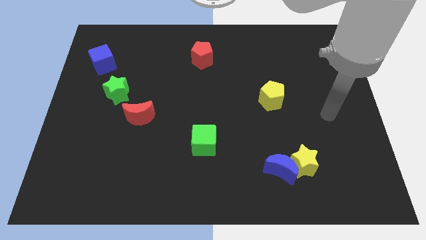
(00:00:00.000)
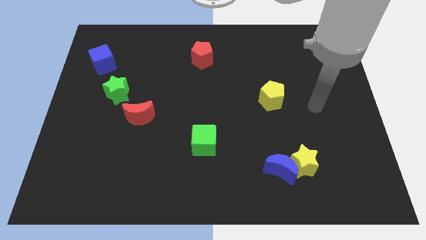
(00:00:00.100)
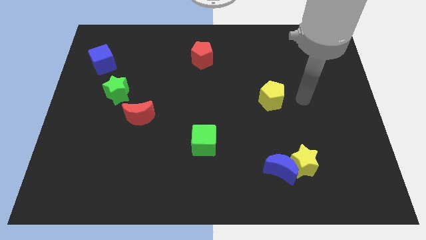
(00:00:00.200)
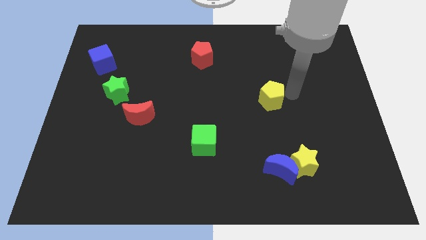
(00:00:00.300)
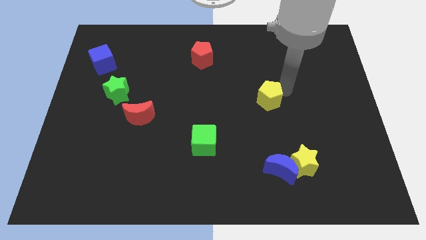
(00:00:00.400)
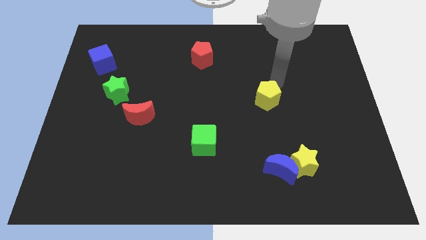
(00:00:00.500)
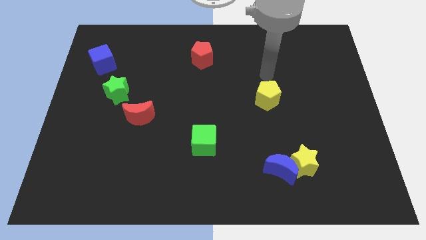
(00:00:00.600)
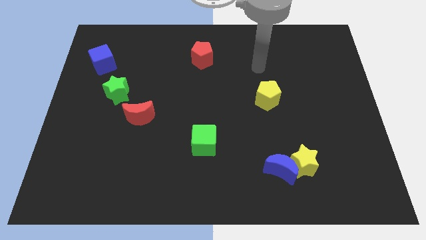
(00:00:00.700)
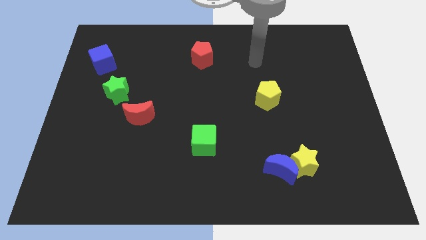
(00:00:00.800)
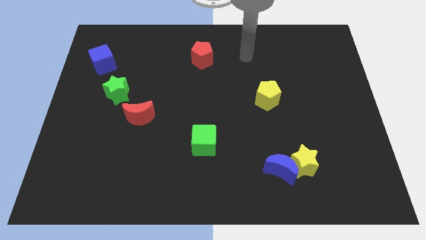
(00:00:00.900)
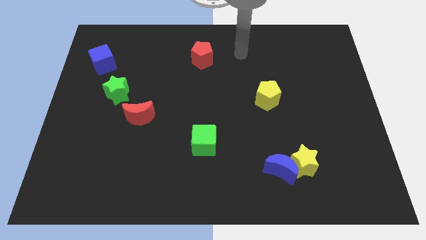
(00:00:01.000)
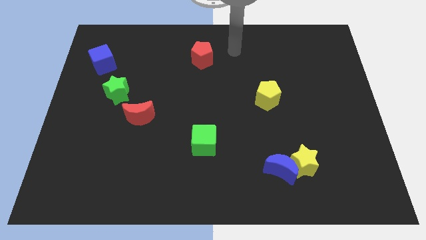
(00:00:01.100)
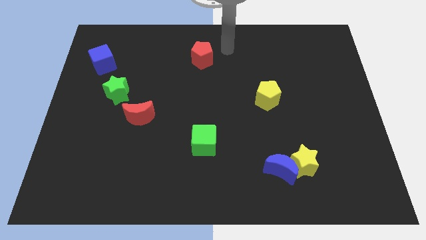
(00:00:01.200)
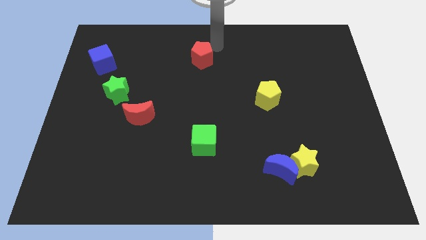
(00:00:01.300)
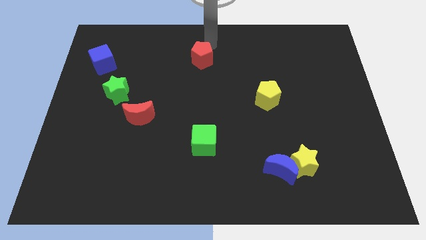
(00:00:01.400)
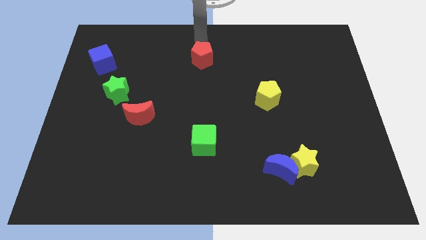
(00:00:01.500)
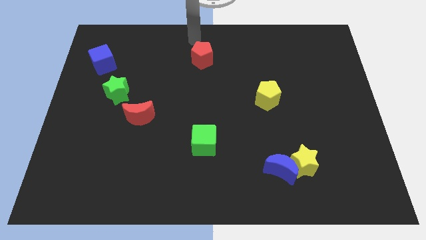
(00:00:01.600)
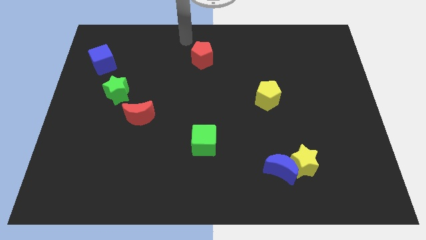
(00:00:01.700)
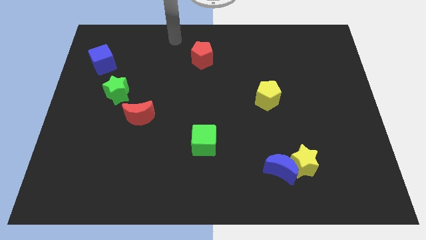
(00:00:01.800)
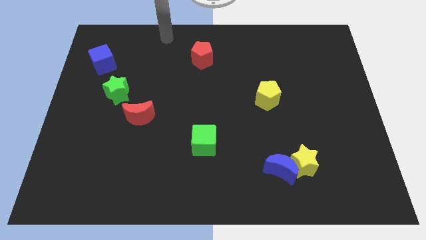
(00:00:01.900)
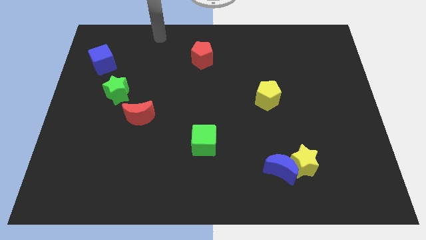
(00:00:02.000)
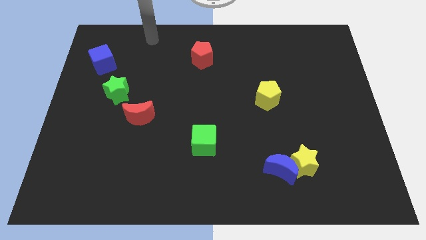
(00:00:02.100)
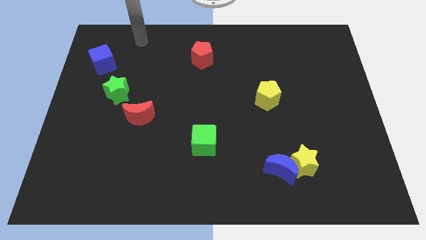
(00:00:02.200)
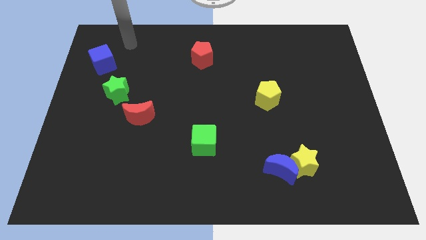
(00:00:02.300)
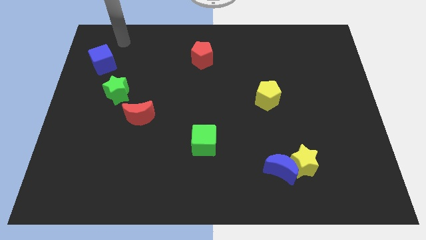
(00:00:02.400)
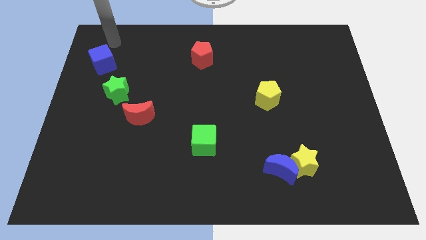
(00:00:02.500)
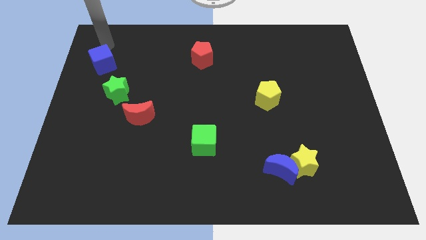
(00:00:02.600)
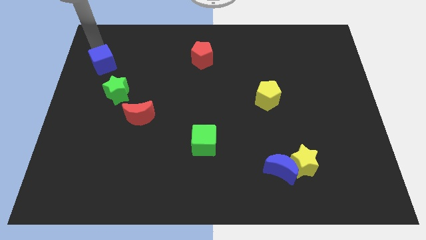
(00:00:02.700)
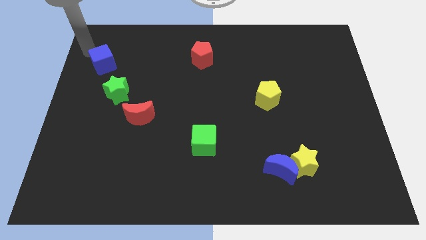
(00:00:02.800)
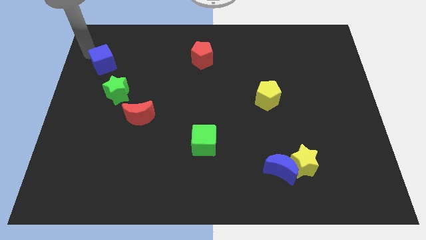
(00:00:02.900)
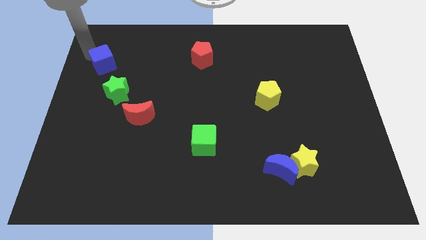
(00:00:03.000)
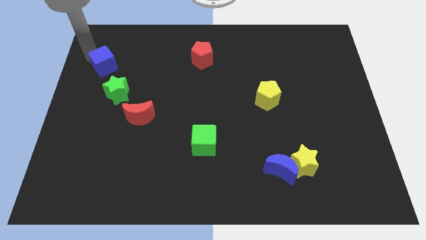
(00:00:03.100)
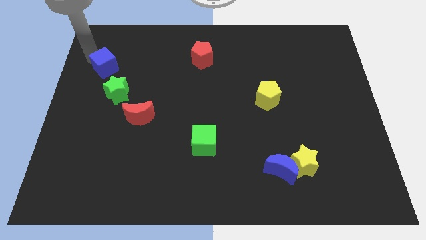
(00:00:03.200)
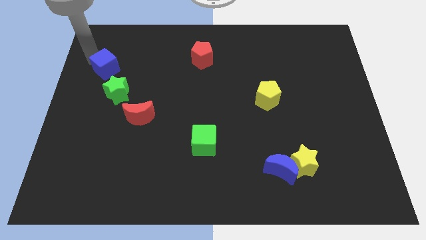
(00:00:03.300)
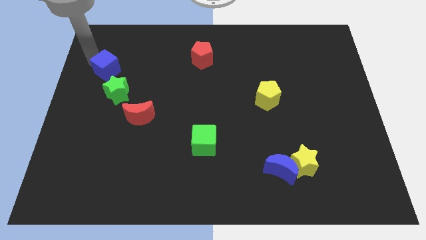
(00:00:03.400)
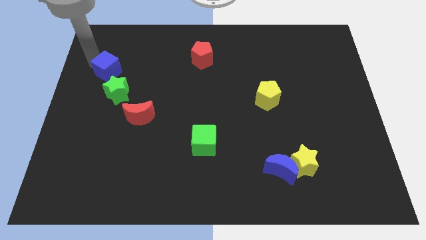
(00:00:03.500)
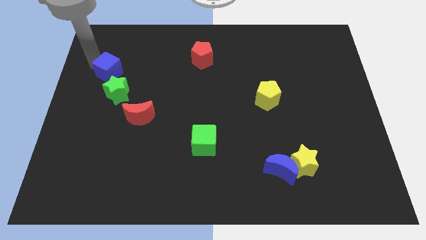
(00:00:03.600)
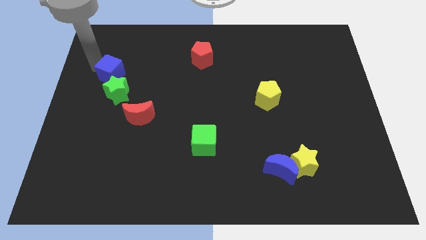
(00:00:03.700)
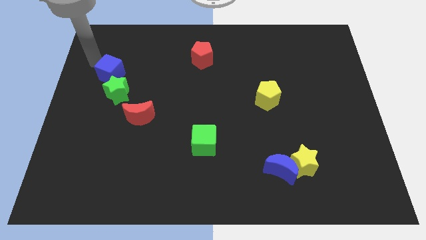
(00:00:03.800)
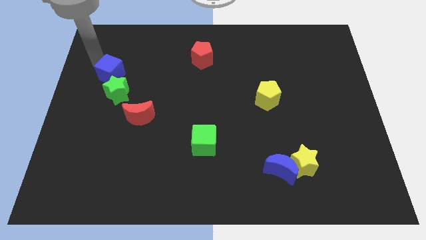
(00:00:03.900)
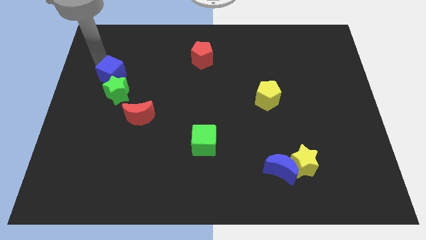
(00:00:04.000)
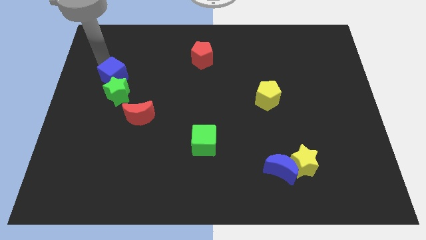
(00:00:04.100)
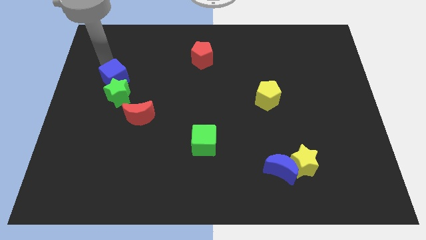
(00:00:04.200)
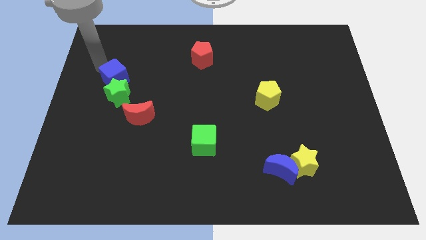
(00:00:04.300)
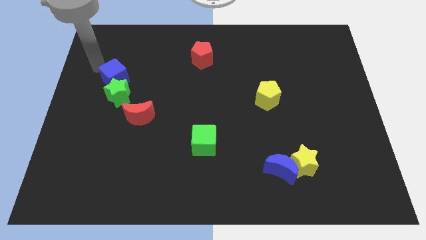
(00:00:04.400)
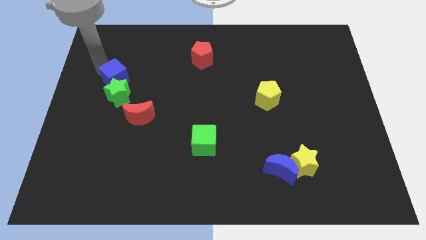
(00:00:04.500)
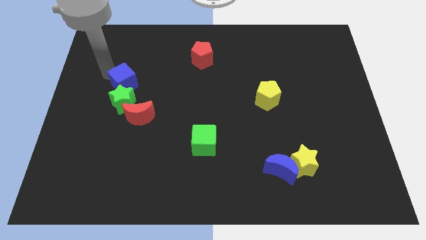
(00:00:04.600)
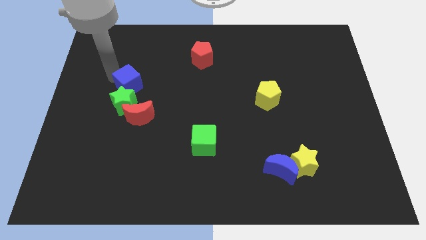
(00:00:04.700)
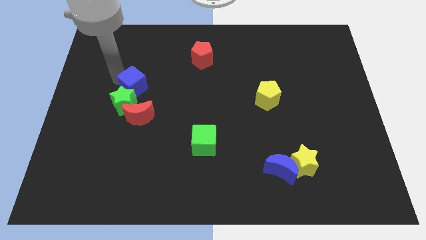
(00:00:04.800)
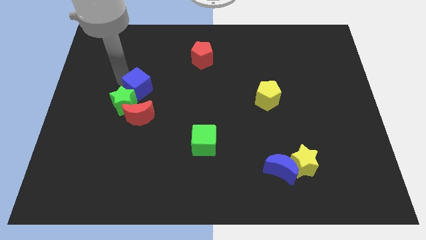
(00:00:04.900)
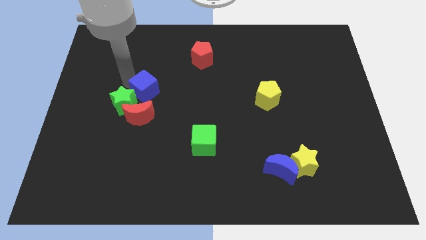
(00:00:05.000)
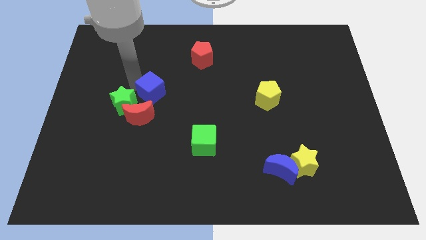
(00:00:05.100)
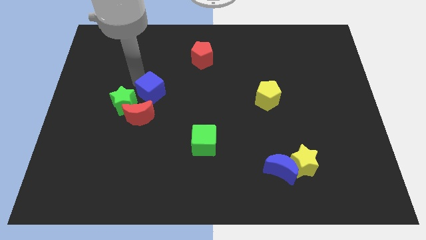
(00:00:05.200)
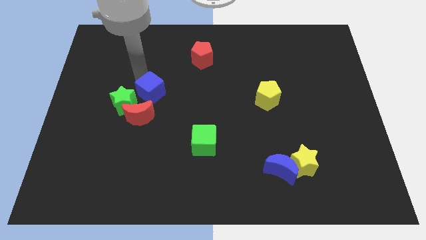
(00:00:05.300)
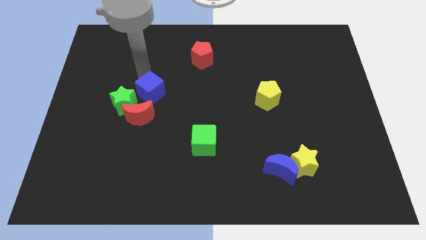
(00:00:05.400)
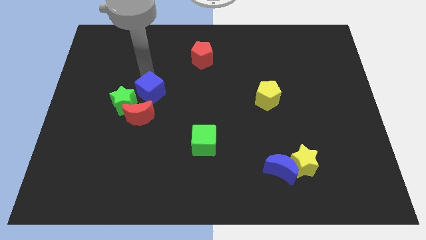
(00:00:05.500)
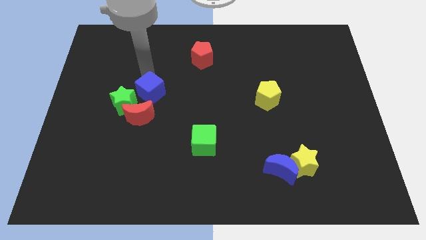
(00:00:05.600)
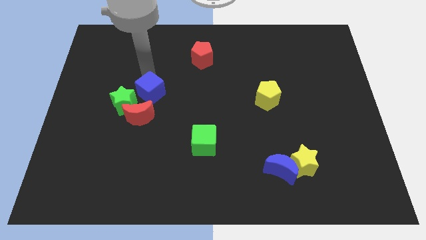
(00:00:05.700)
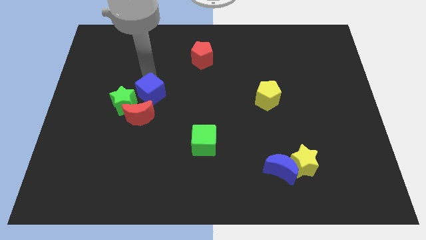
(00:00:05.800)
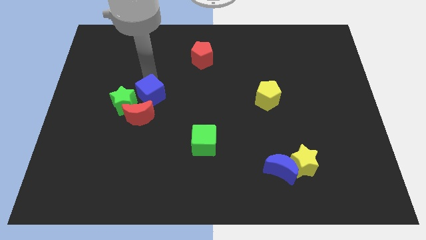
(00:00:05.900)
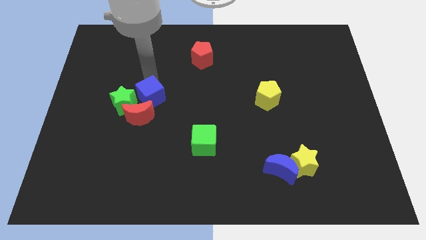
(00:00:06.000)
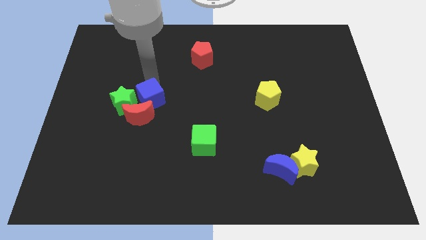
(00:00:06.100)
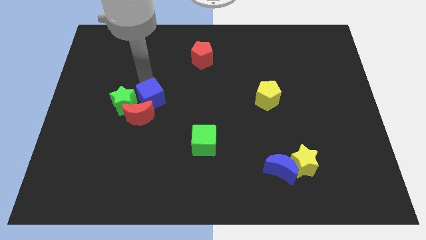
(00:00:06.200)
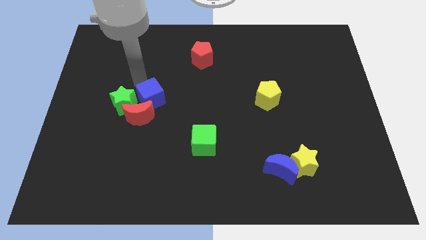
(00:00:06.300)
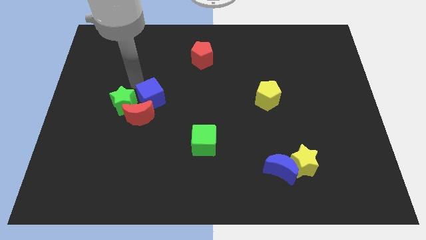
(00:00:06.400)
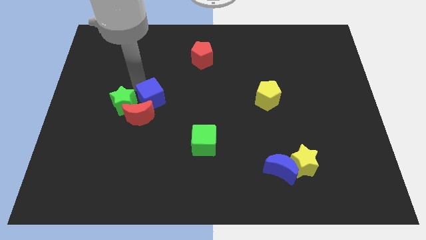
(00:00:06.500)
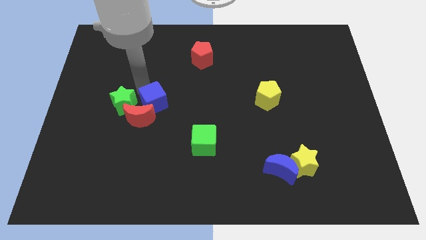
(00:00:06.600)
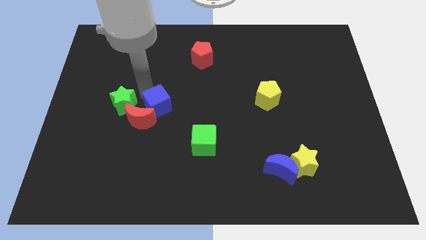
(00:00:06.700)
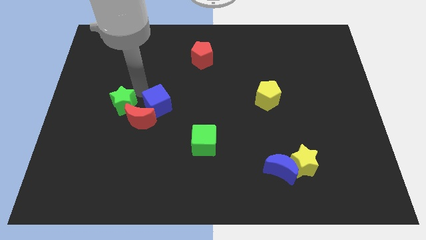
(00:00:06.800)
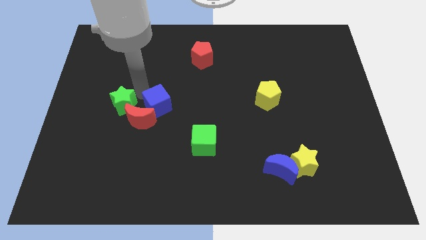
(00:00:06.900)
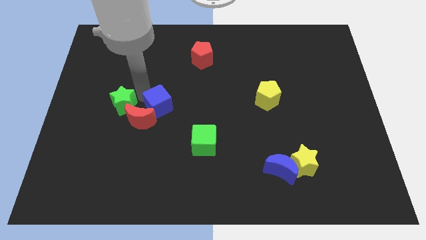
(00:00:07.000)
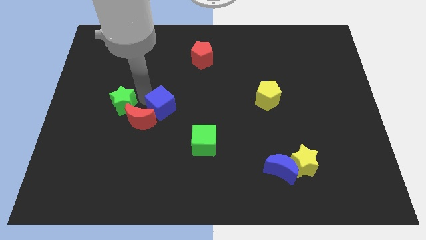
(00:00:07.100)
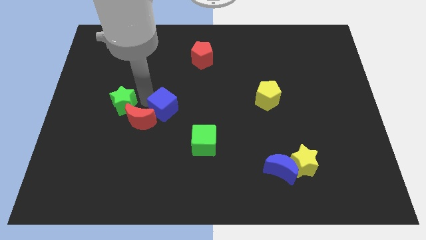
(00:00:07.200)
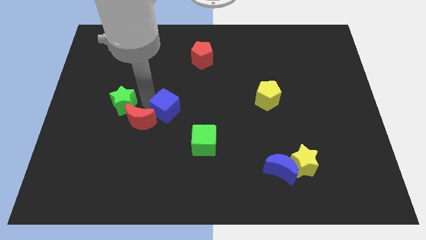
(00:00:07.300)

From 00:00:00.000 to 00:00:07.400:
move the blue cube diagonally up and to the left of the green cube

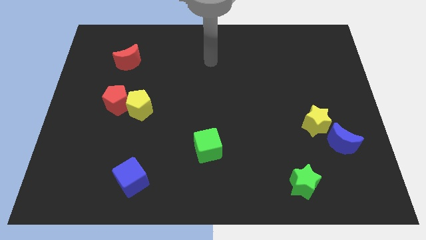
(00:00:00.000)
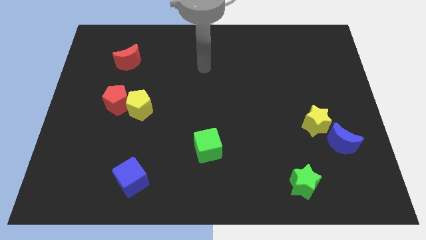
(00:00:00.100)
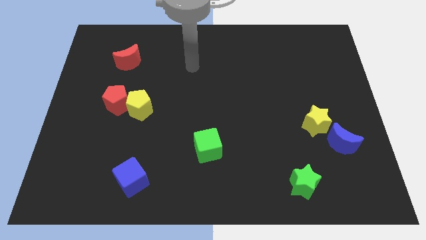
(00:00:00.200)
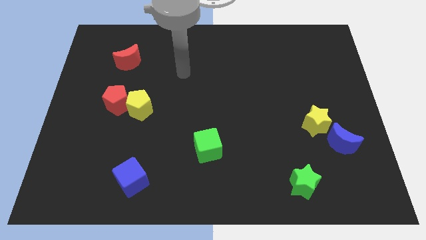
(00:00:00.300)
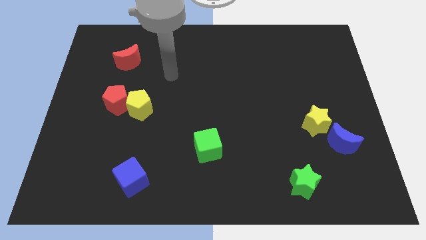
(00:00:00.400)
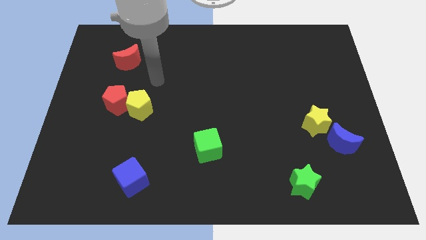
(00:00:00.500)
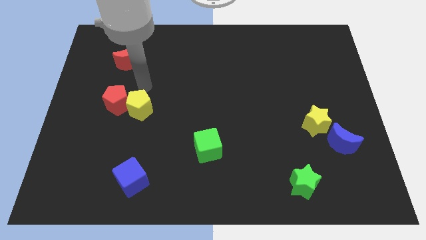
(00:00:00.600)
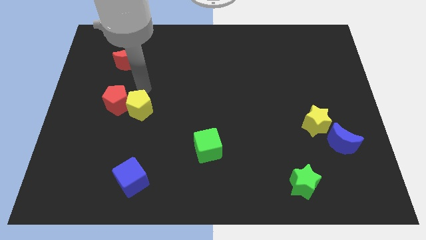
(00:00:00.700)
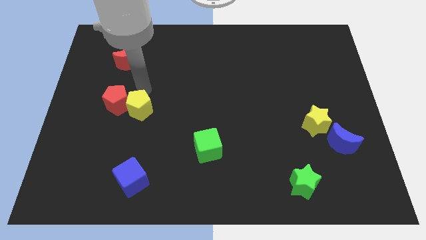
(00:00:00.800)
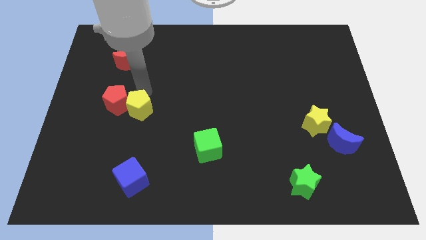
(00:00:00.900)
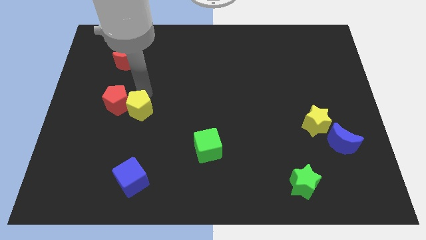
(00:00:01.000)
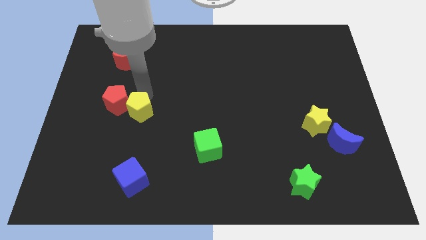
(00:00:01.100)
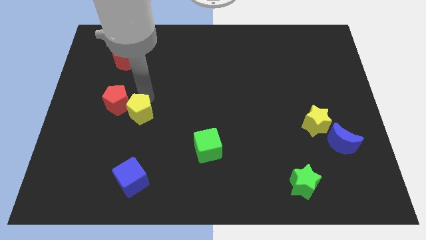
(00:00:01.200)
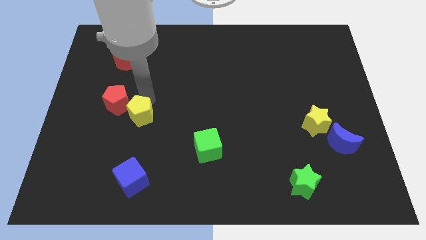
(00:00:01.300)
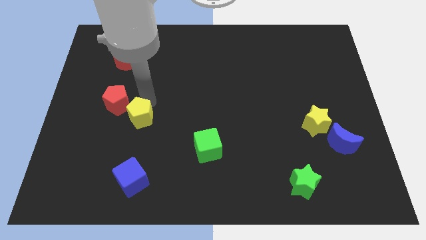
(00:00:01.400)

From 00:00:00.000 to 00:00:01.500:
slide the yellow pentagon to the top side of the blue cube
